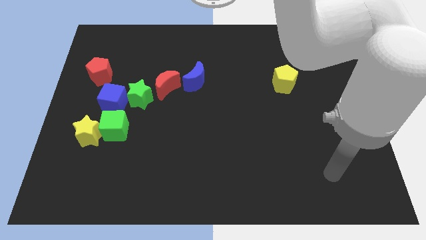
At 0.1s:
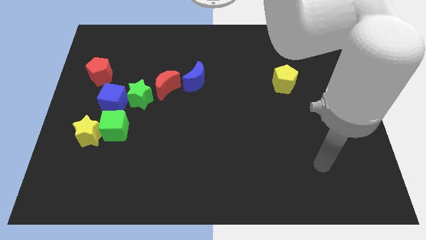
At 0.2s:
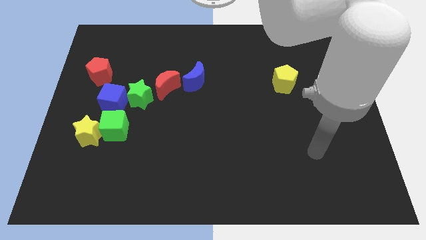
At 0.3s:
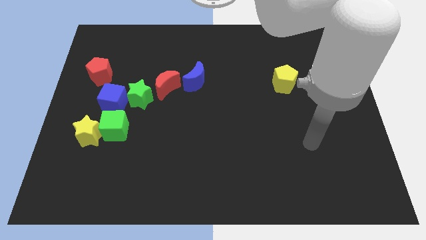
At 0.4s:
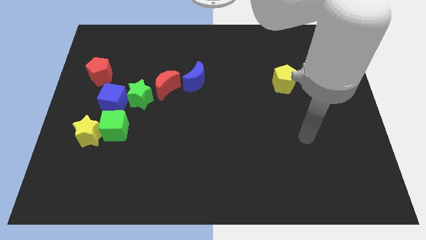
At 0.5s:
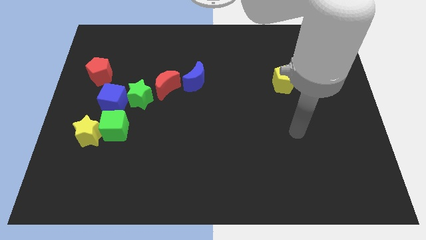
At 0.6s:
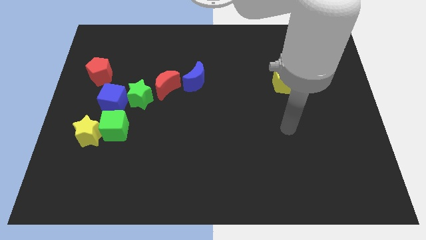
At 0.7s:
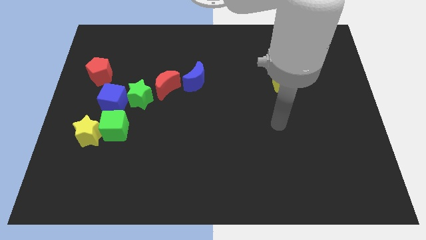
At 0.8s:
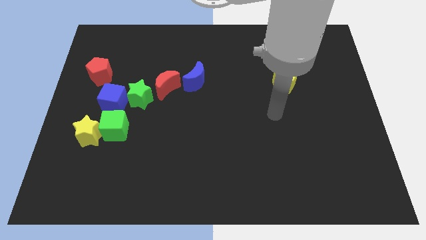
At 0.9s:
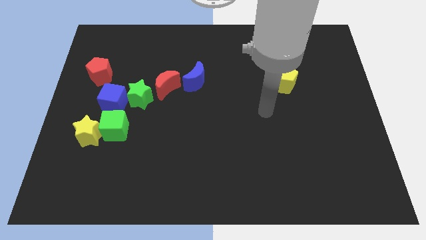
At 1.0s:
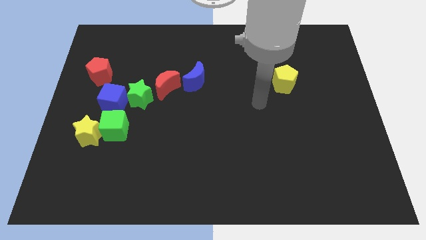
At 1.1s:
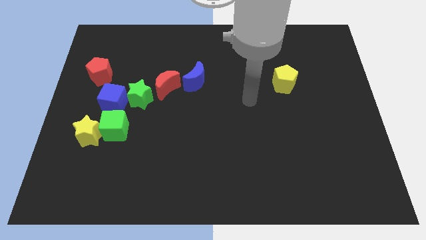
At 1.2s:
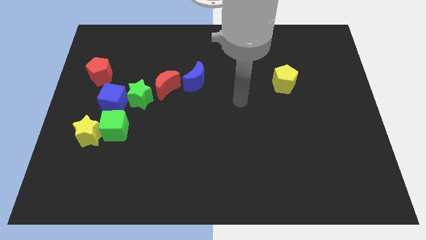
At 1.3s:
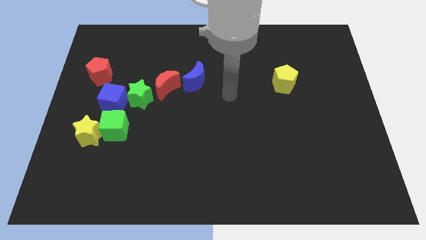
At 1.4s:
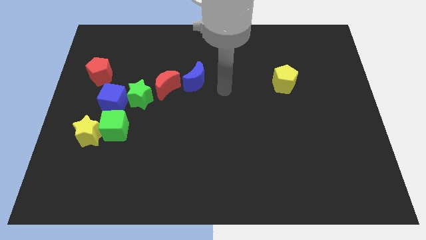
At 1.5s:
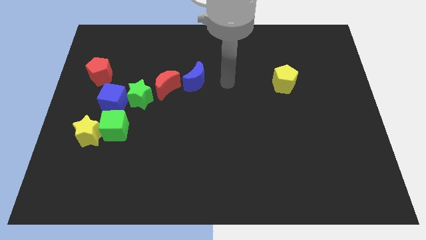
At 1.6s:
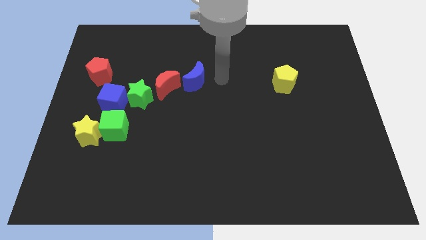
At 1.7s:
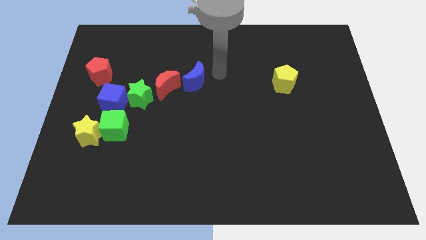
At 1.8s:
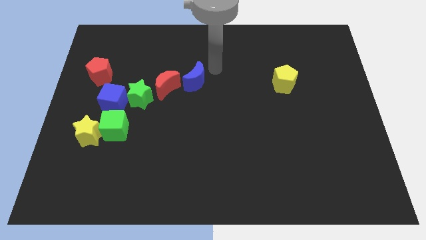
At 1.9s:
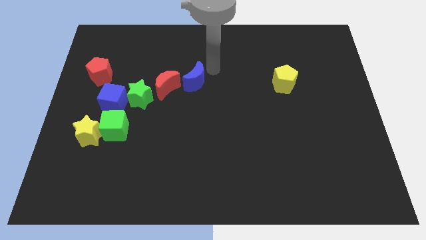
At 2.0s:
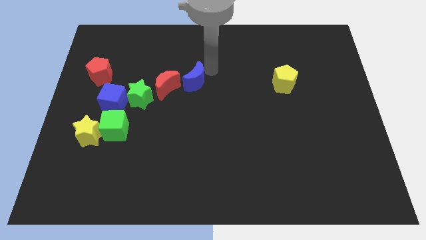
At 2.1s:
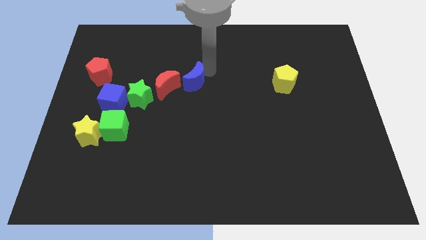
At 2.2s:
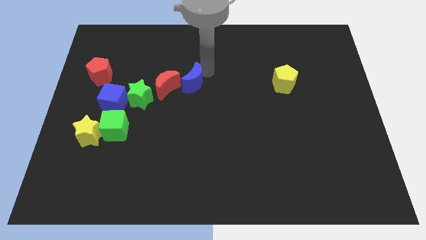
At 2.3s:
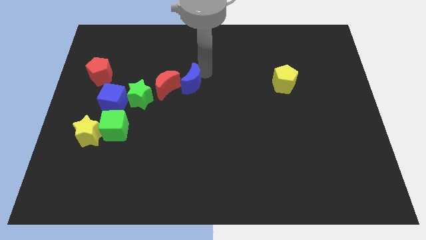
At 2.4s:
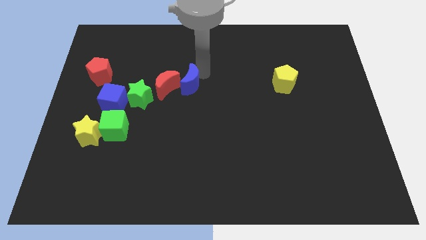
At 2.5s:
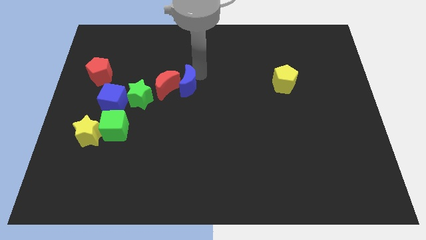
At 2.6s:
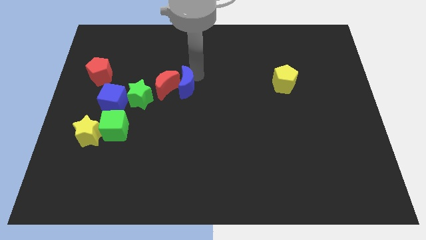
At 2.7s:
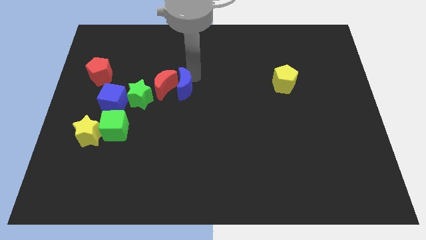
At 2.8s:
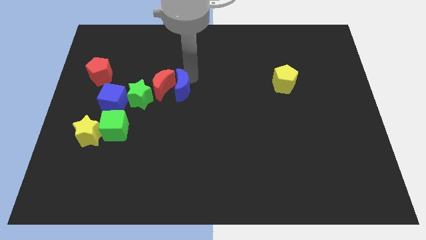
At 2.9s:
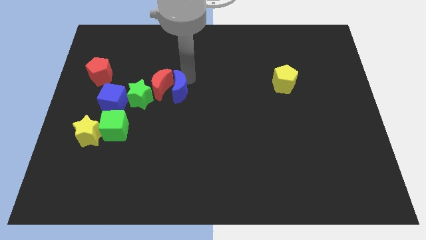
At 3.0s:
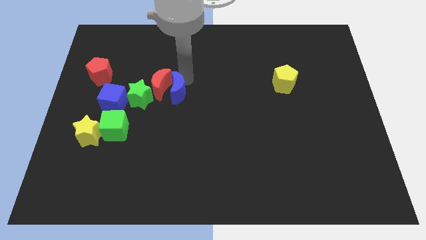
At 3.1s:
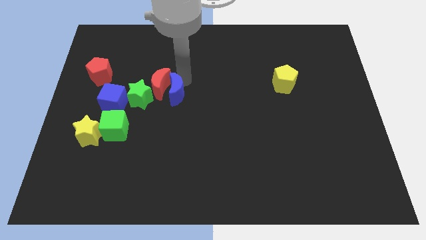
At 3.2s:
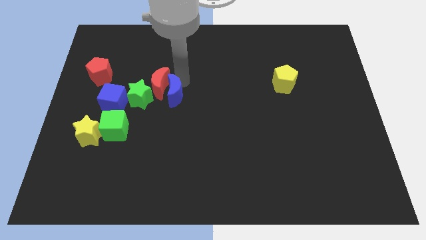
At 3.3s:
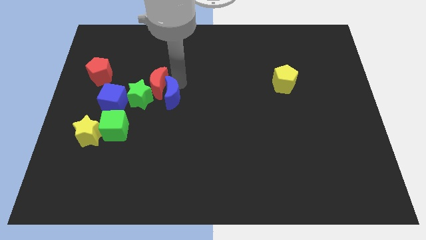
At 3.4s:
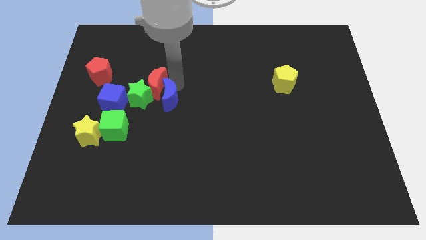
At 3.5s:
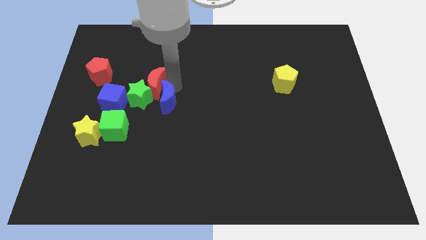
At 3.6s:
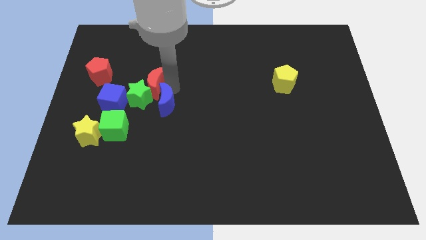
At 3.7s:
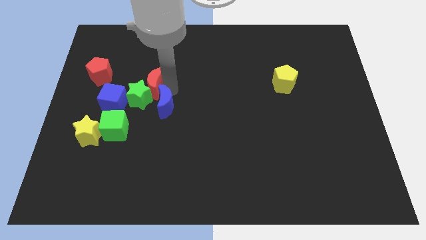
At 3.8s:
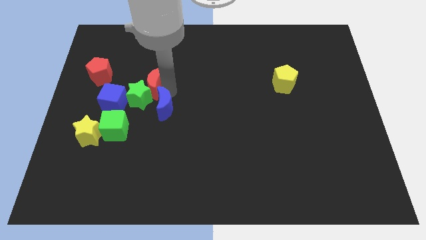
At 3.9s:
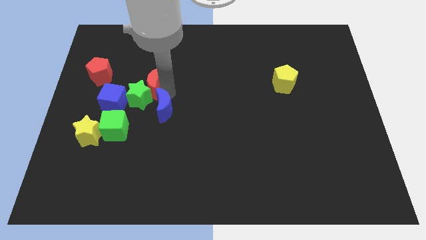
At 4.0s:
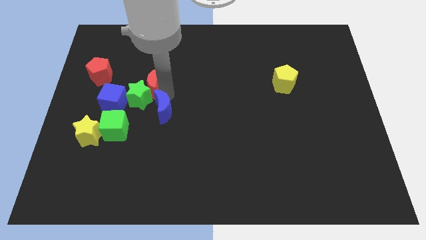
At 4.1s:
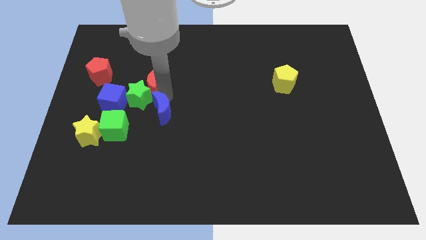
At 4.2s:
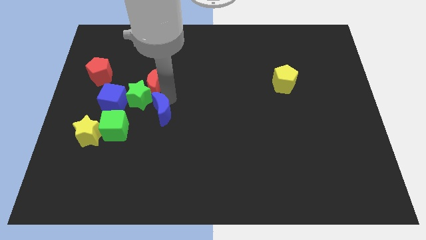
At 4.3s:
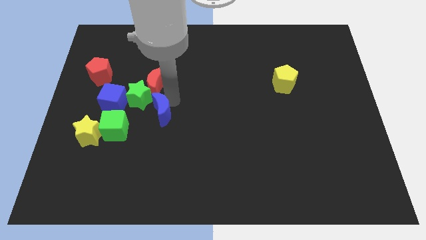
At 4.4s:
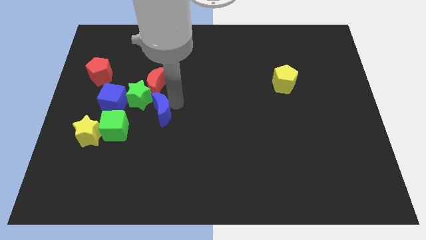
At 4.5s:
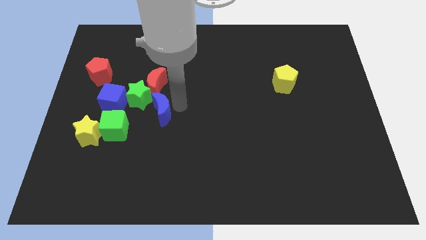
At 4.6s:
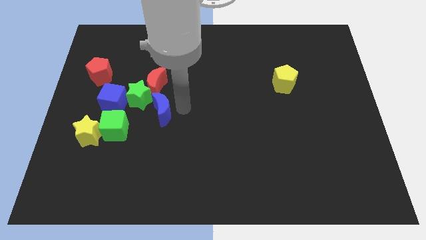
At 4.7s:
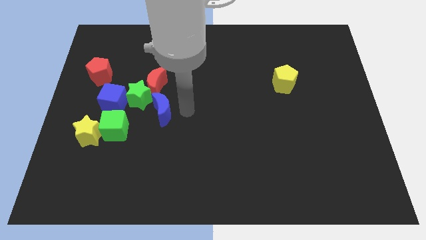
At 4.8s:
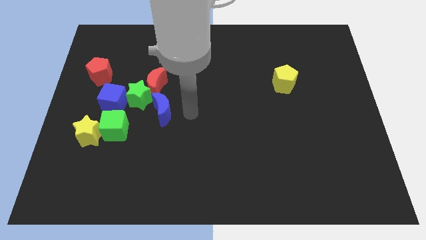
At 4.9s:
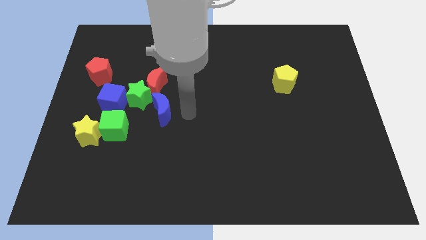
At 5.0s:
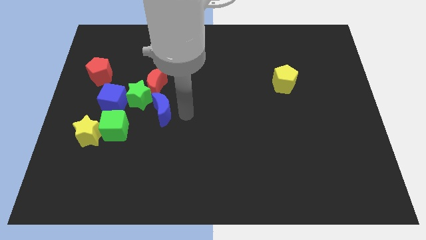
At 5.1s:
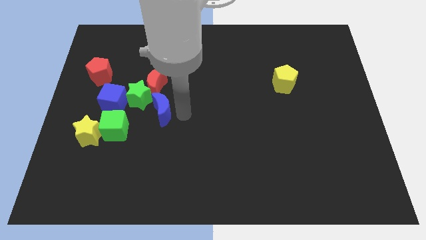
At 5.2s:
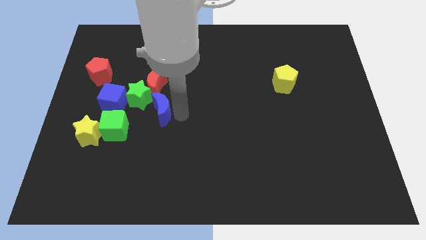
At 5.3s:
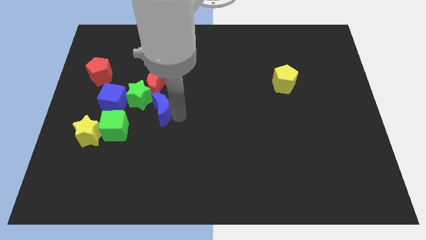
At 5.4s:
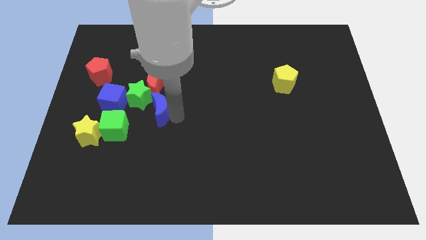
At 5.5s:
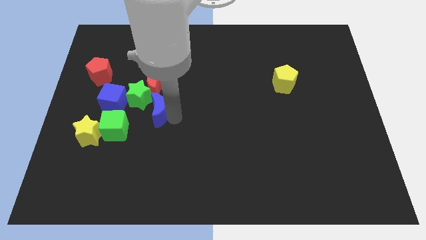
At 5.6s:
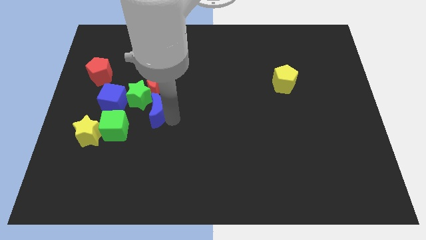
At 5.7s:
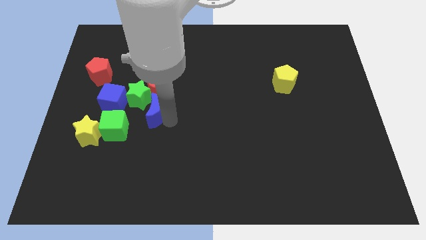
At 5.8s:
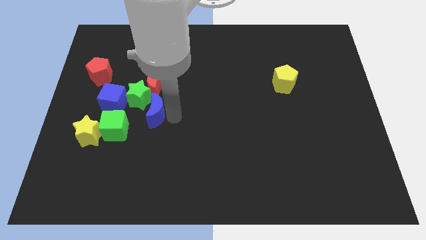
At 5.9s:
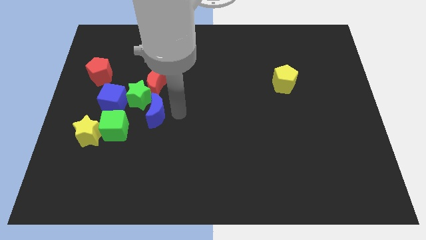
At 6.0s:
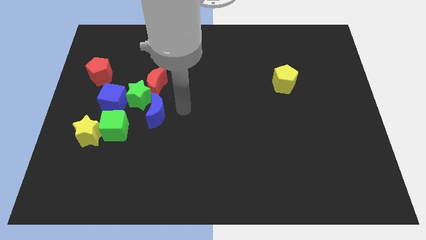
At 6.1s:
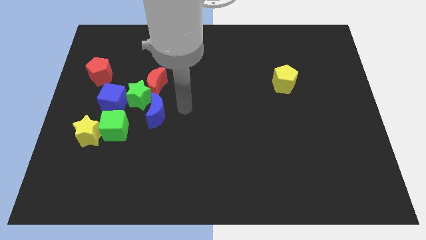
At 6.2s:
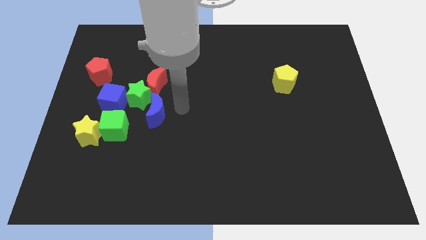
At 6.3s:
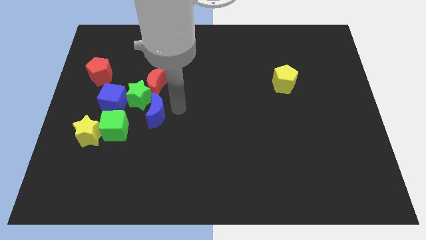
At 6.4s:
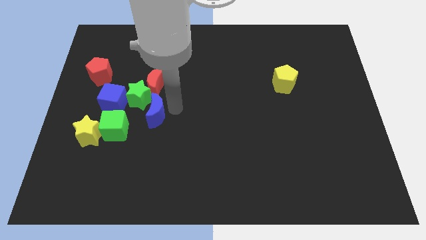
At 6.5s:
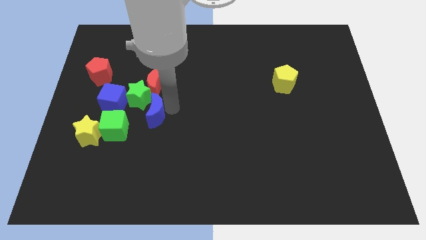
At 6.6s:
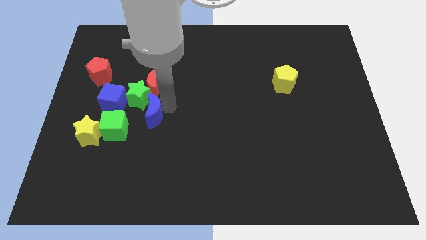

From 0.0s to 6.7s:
slide the blue moon to the bottom right of the blue cube
